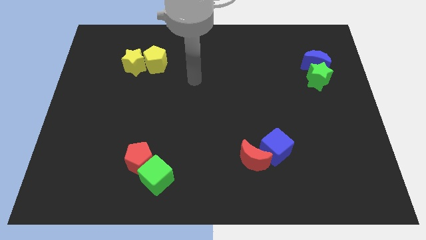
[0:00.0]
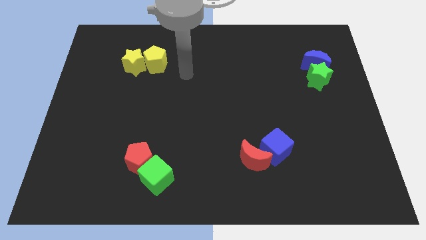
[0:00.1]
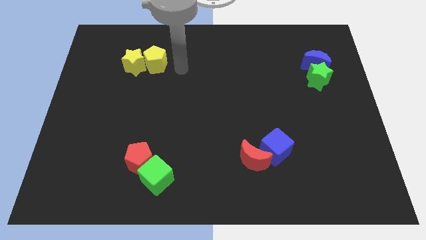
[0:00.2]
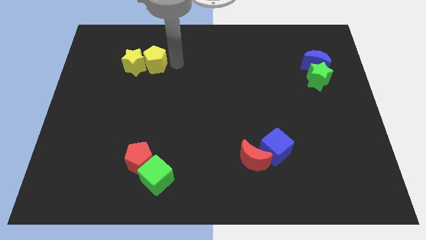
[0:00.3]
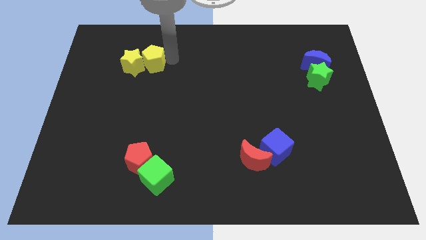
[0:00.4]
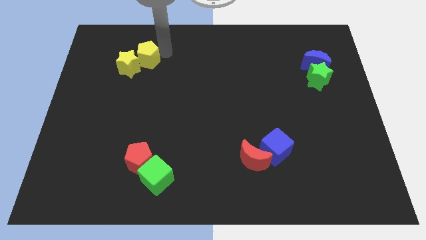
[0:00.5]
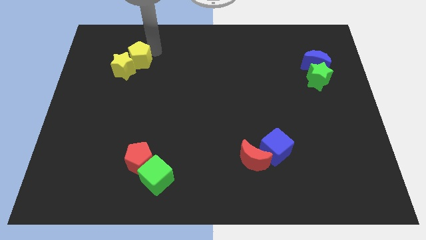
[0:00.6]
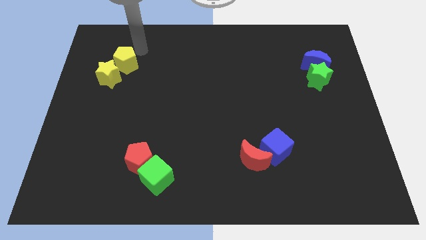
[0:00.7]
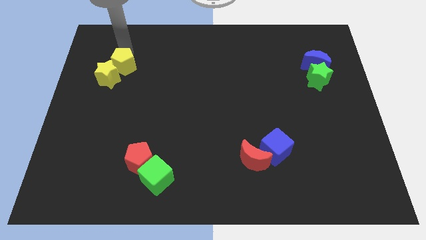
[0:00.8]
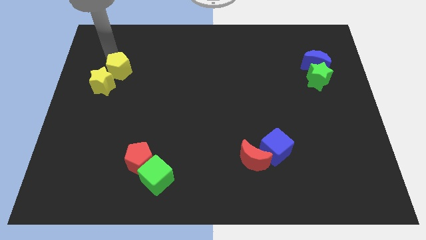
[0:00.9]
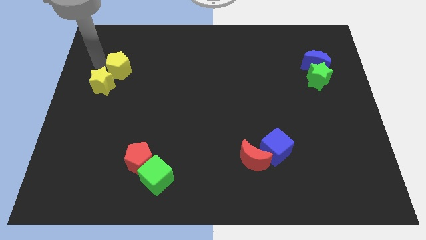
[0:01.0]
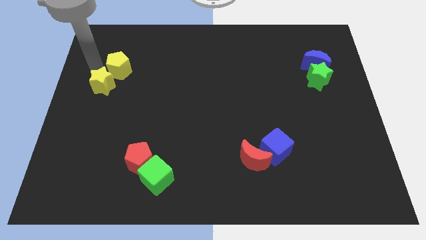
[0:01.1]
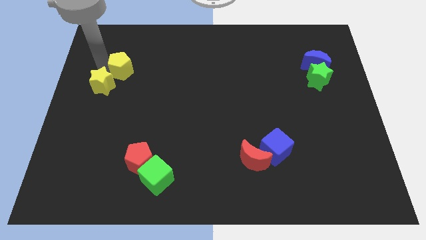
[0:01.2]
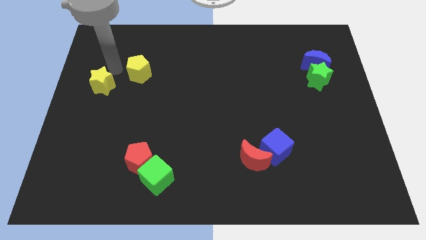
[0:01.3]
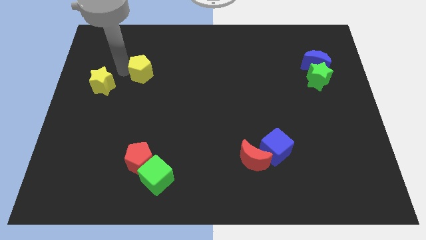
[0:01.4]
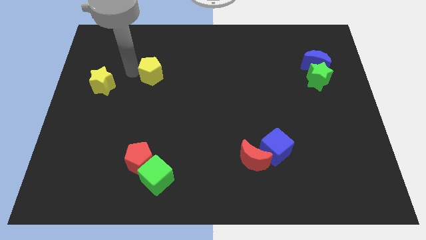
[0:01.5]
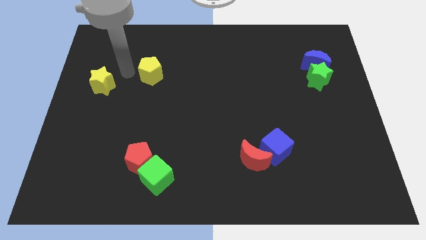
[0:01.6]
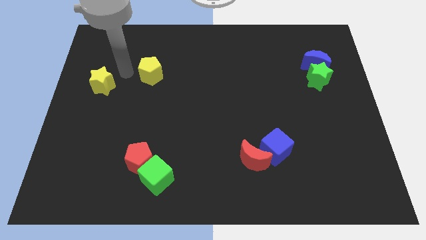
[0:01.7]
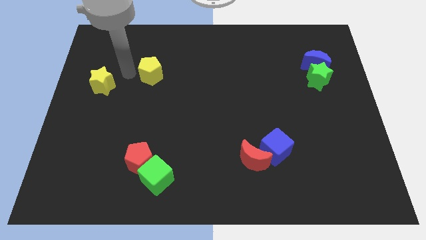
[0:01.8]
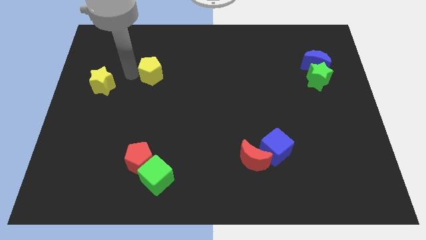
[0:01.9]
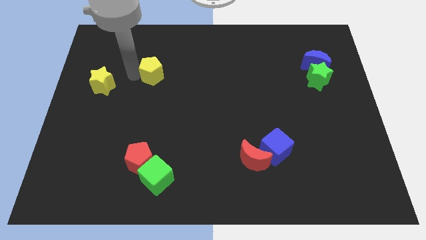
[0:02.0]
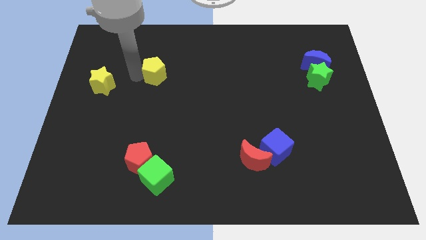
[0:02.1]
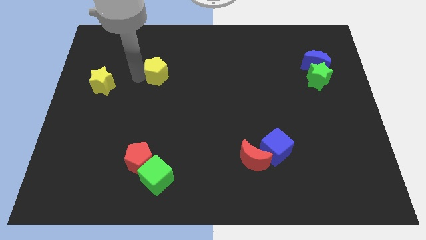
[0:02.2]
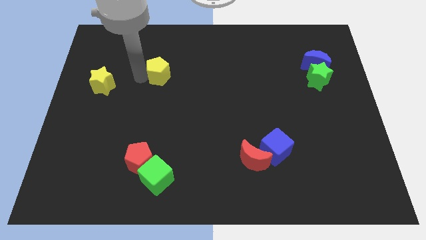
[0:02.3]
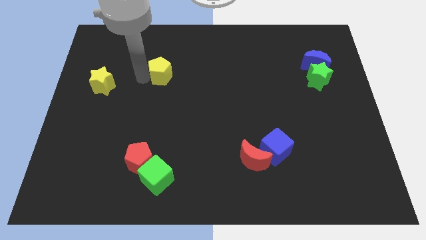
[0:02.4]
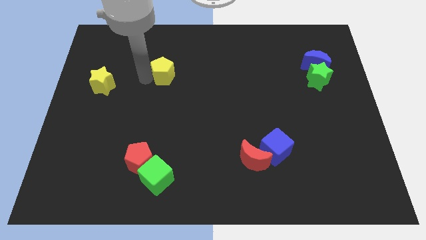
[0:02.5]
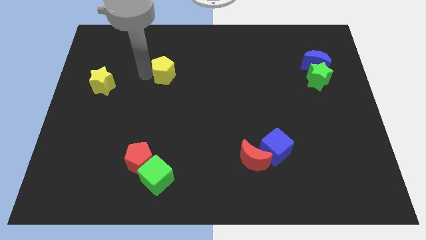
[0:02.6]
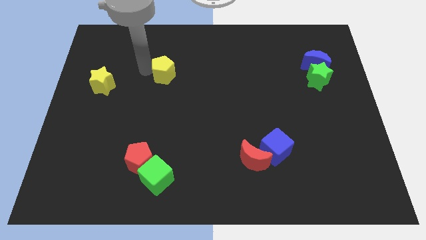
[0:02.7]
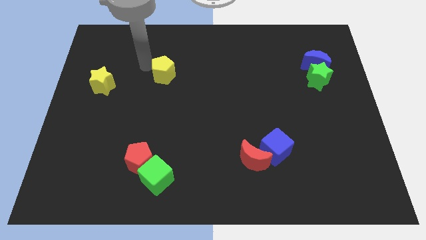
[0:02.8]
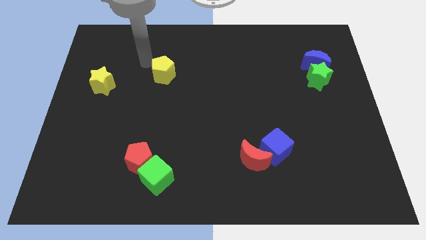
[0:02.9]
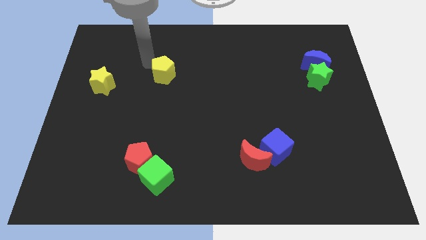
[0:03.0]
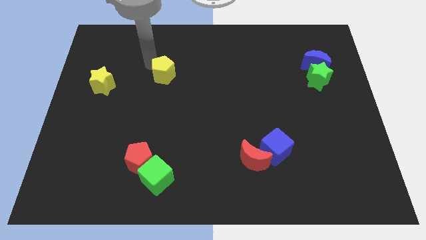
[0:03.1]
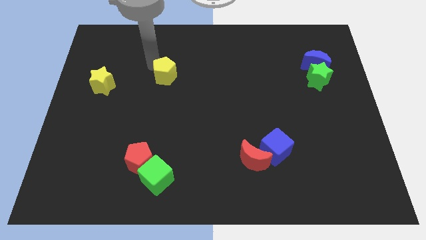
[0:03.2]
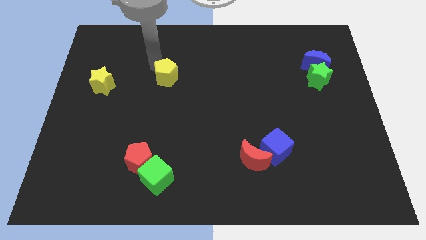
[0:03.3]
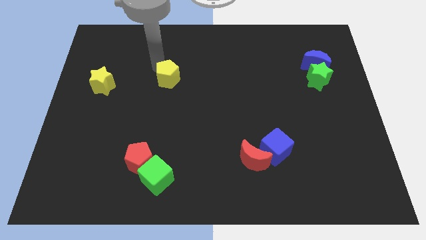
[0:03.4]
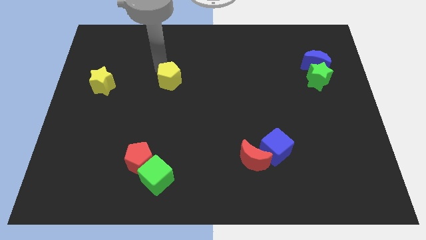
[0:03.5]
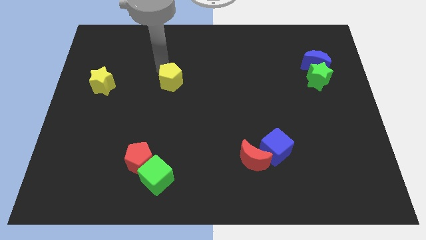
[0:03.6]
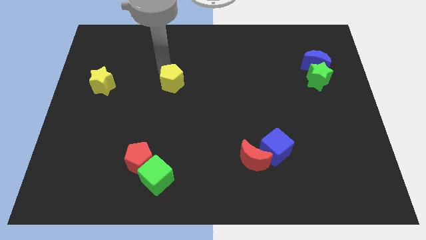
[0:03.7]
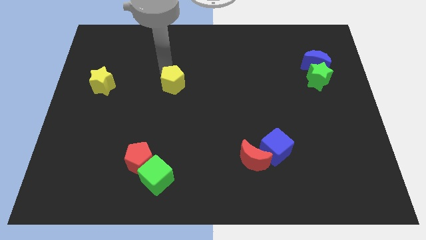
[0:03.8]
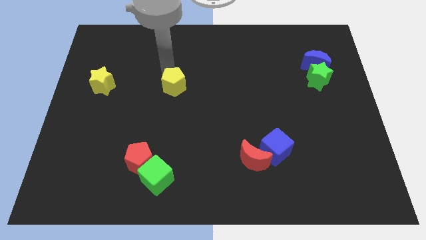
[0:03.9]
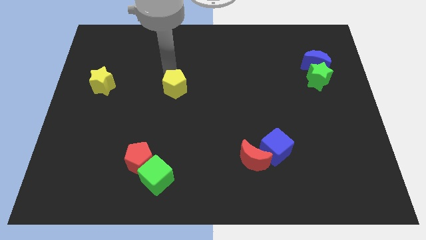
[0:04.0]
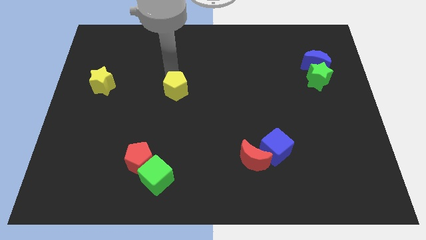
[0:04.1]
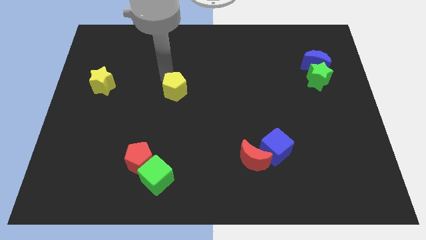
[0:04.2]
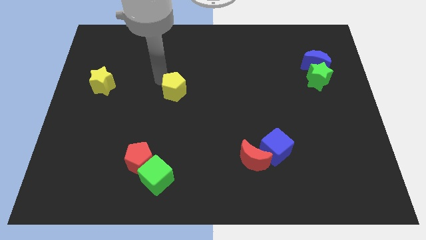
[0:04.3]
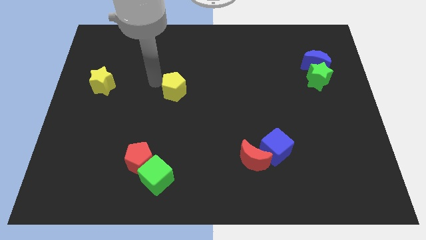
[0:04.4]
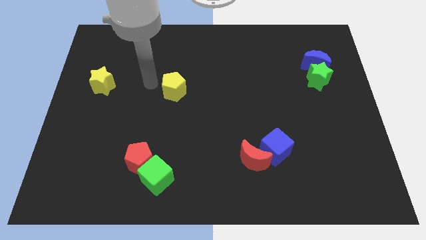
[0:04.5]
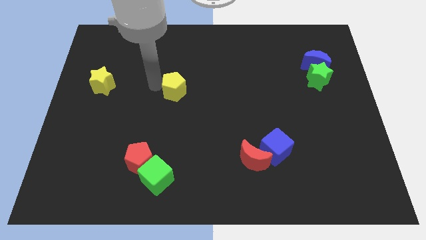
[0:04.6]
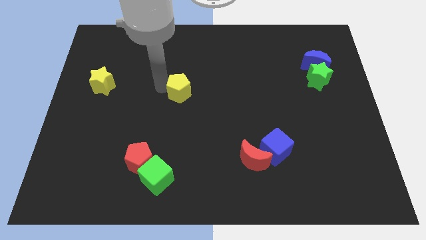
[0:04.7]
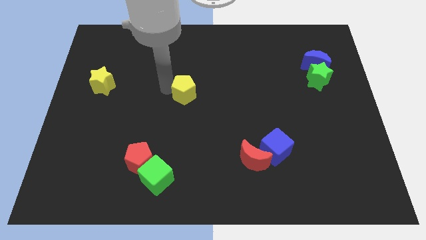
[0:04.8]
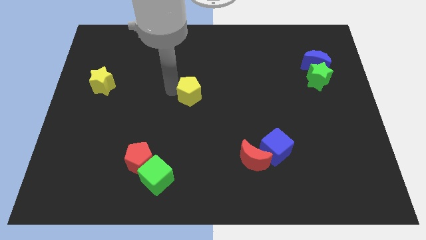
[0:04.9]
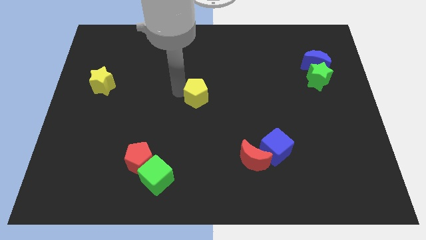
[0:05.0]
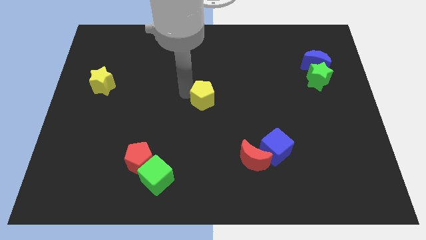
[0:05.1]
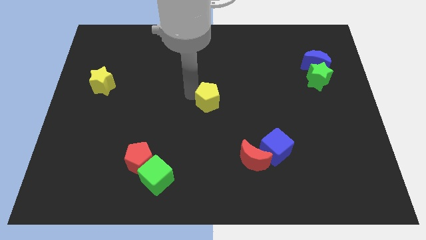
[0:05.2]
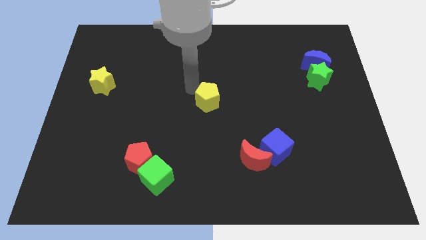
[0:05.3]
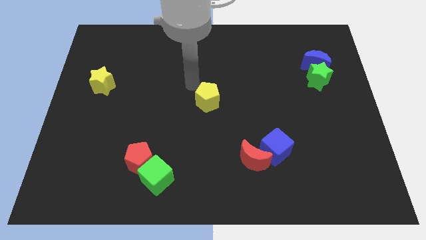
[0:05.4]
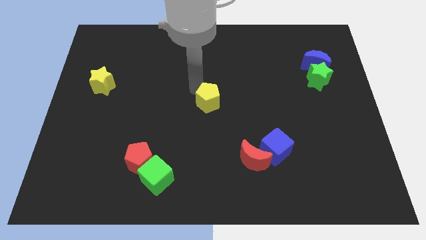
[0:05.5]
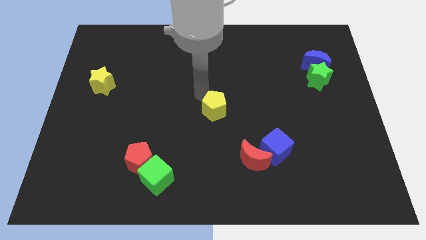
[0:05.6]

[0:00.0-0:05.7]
push the yellow pentagon downwards and to the right diagonally

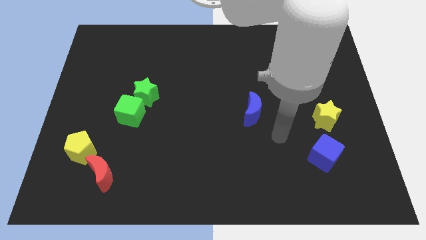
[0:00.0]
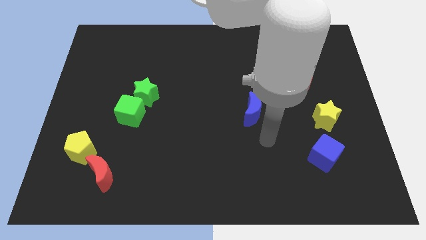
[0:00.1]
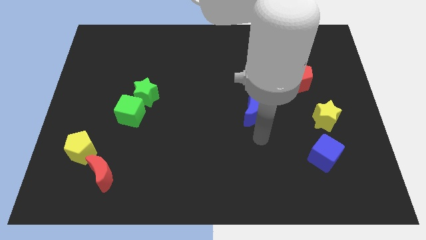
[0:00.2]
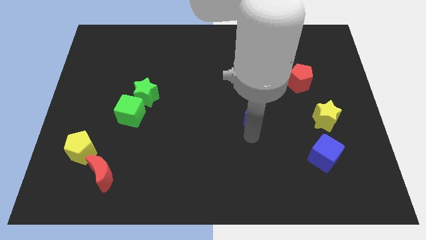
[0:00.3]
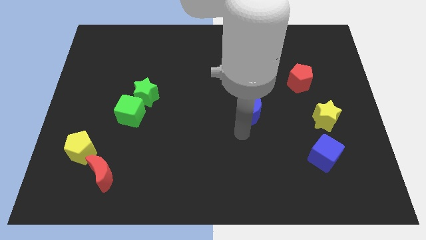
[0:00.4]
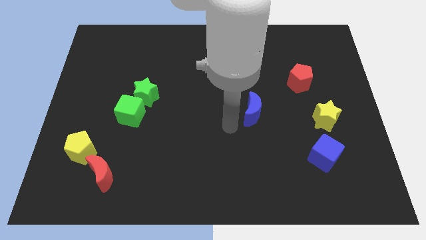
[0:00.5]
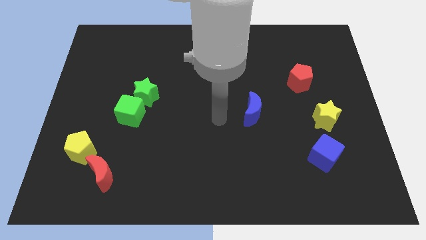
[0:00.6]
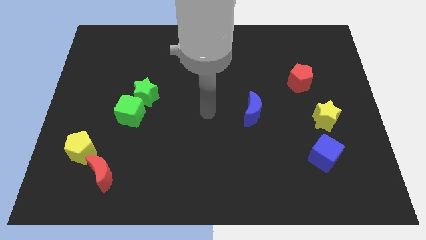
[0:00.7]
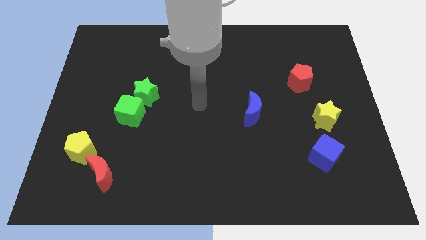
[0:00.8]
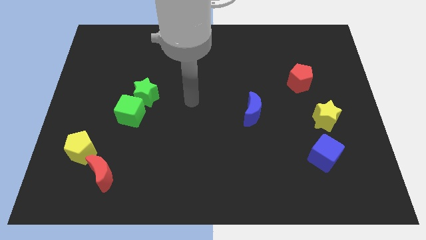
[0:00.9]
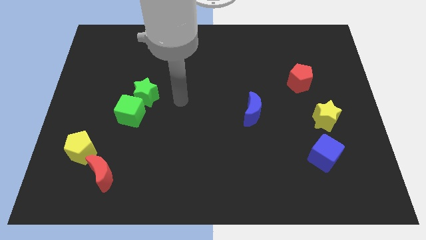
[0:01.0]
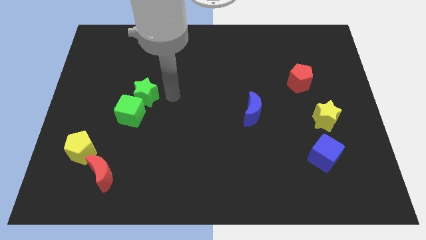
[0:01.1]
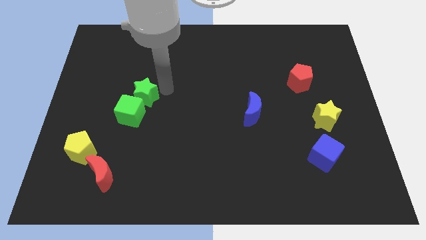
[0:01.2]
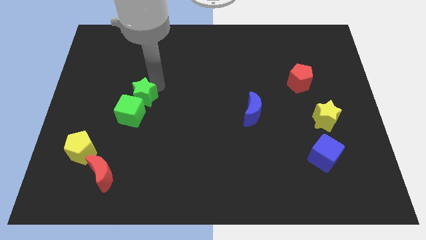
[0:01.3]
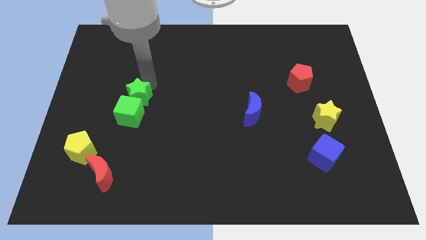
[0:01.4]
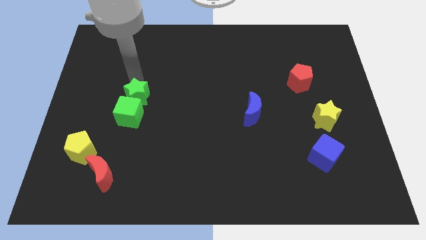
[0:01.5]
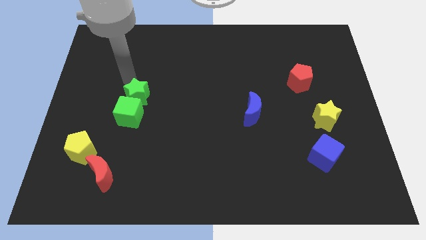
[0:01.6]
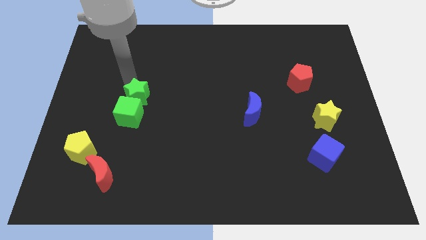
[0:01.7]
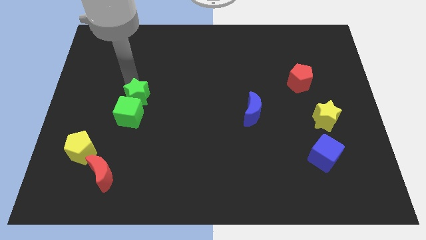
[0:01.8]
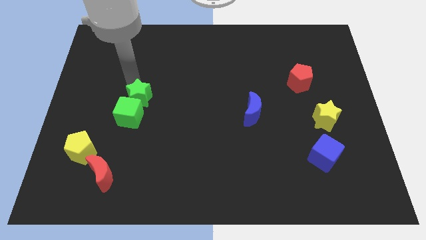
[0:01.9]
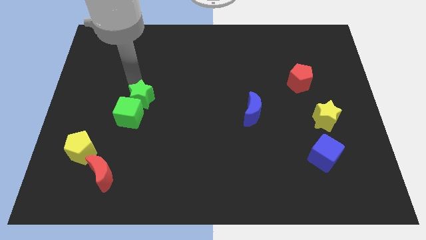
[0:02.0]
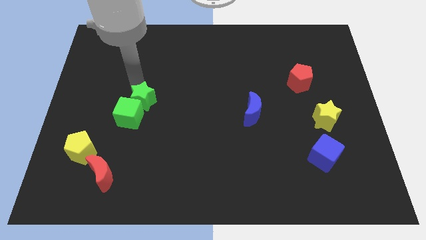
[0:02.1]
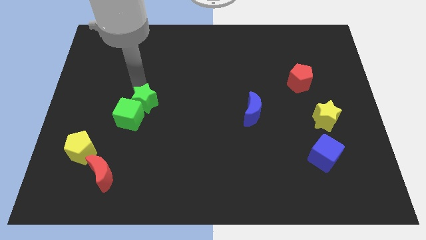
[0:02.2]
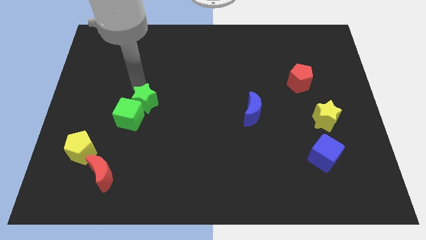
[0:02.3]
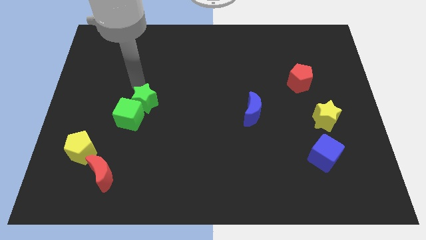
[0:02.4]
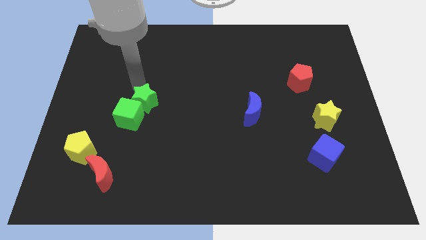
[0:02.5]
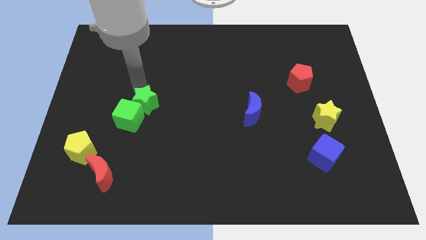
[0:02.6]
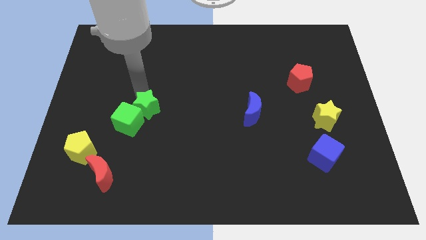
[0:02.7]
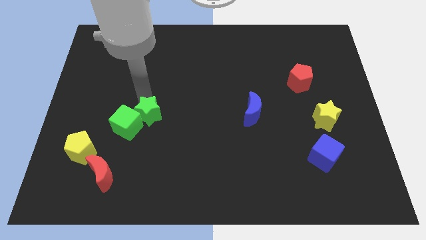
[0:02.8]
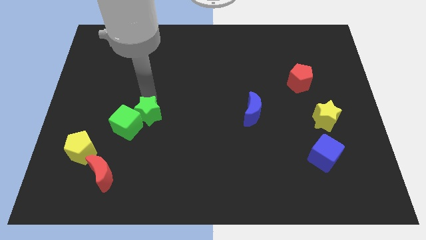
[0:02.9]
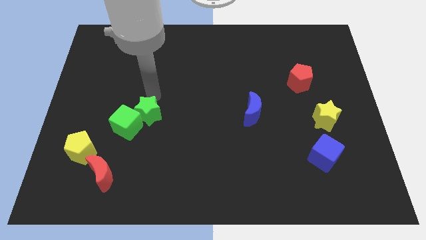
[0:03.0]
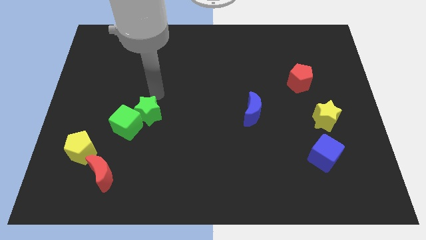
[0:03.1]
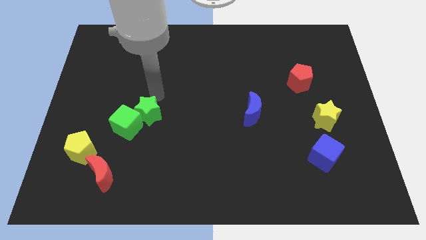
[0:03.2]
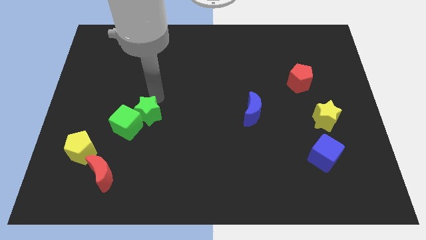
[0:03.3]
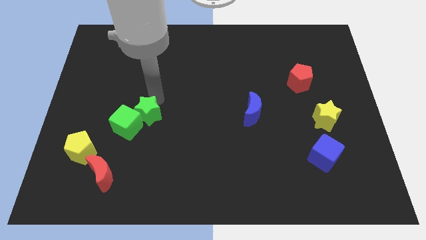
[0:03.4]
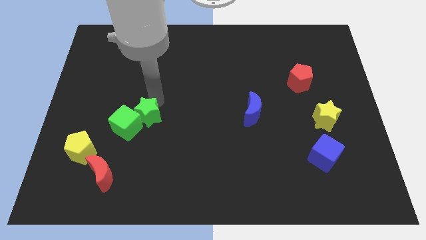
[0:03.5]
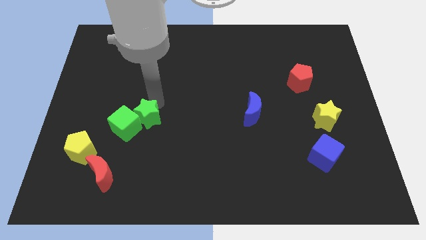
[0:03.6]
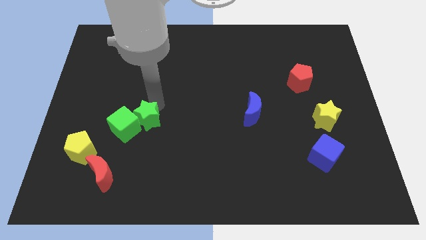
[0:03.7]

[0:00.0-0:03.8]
slightly move the green star downwards
